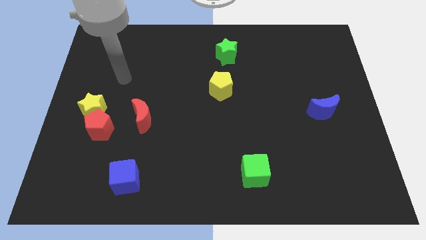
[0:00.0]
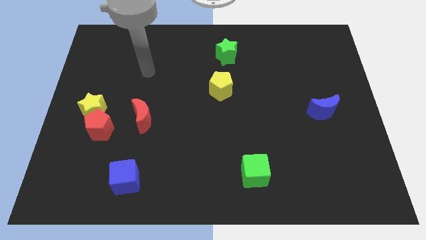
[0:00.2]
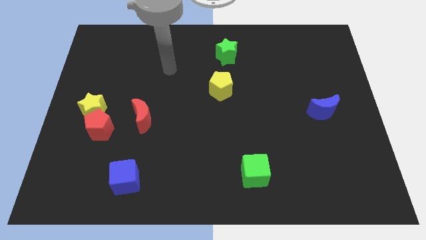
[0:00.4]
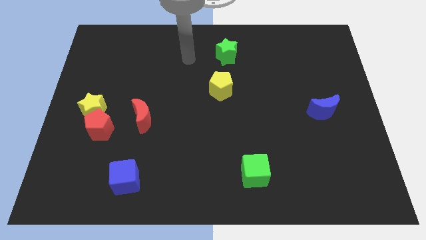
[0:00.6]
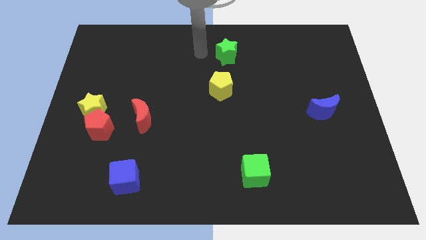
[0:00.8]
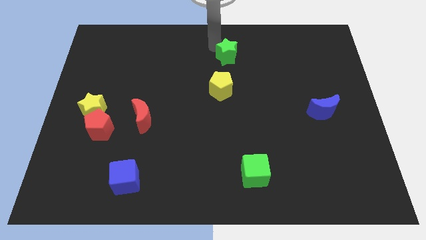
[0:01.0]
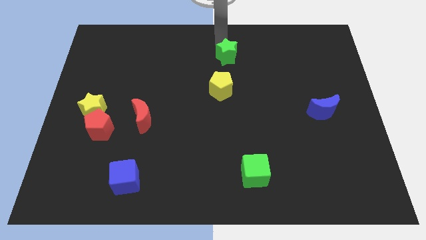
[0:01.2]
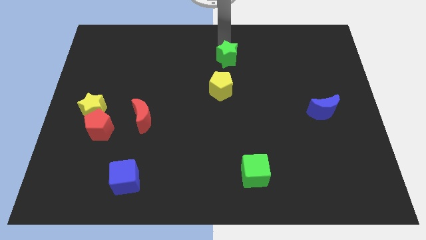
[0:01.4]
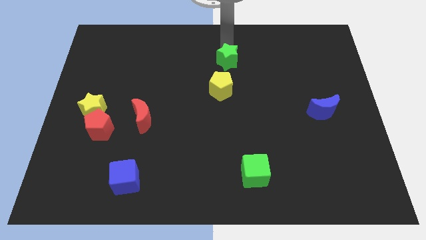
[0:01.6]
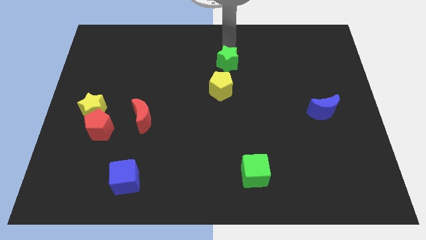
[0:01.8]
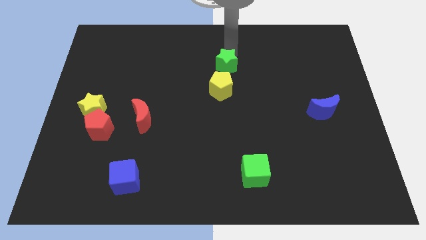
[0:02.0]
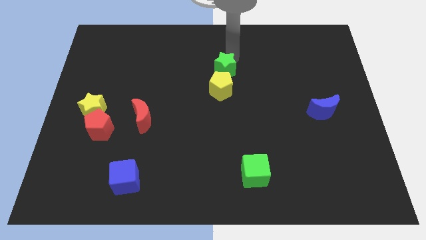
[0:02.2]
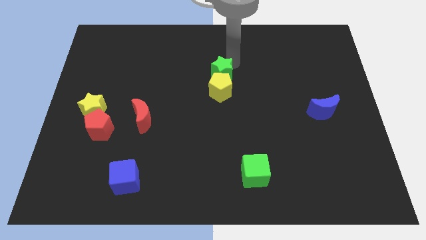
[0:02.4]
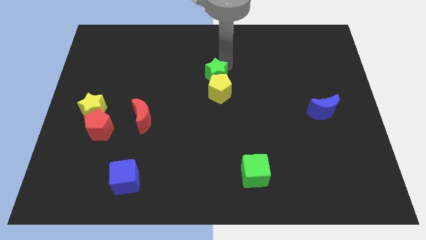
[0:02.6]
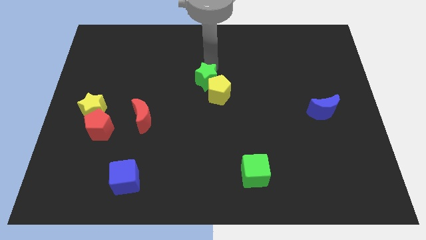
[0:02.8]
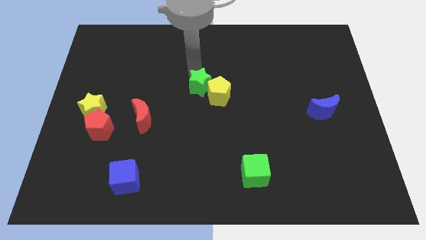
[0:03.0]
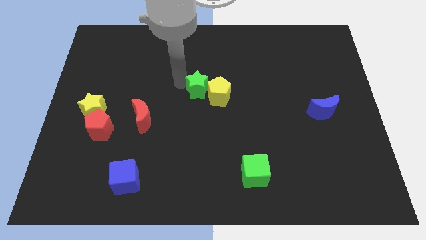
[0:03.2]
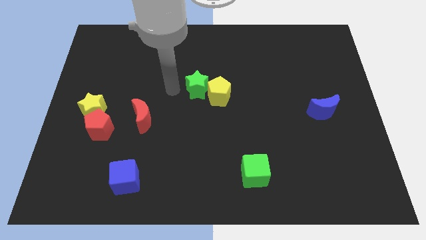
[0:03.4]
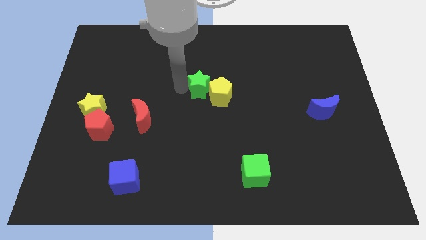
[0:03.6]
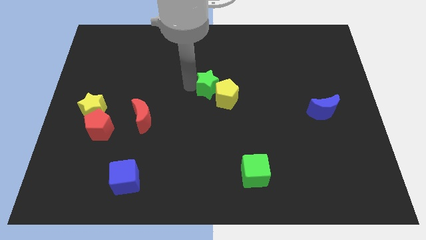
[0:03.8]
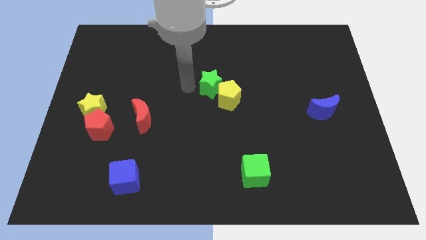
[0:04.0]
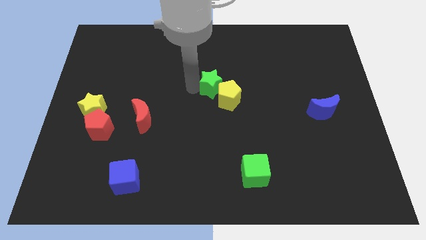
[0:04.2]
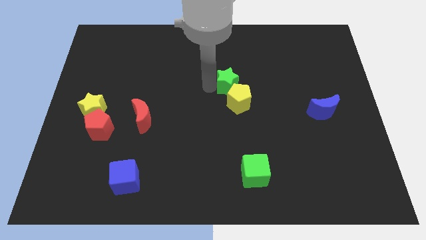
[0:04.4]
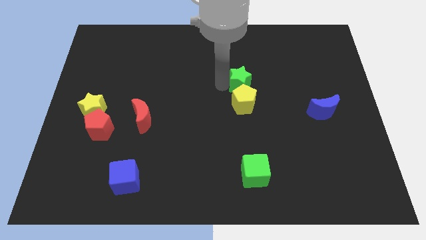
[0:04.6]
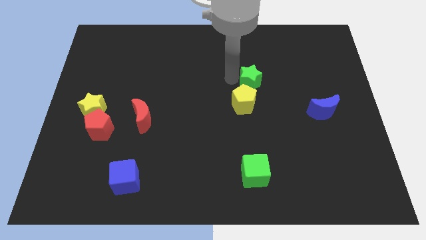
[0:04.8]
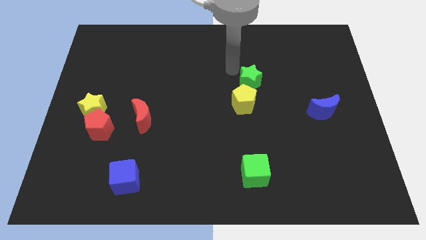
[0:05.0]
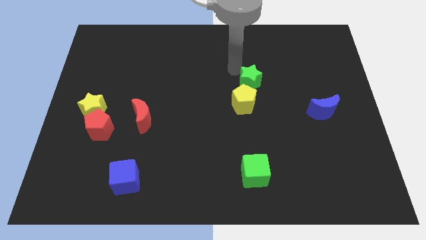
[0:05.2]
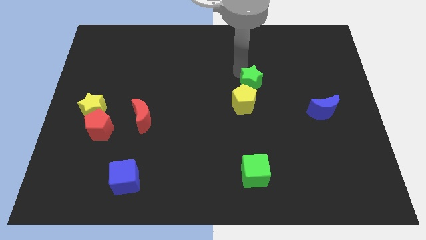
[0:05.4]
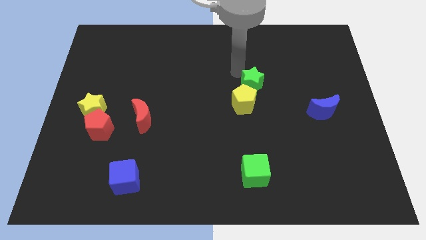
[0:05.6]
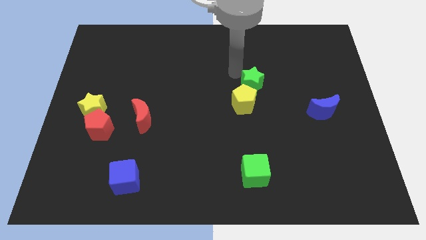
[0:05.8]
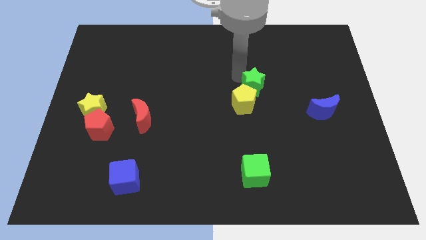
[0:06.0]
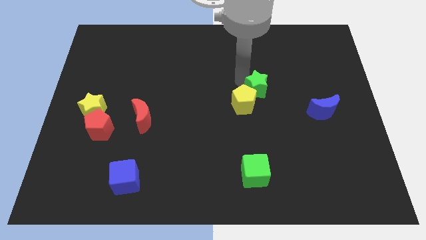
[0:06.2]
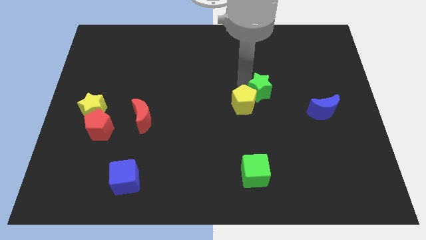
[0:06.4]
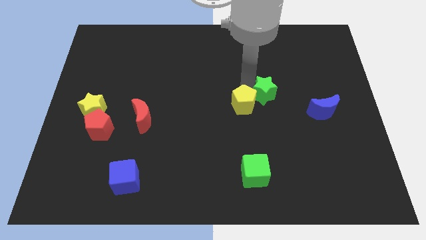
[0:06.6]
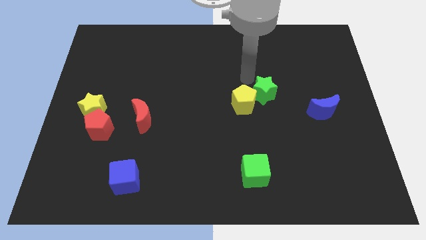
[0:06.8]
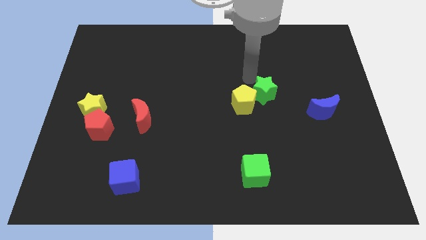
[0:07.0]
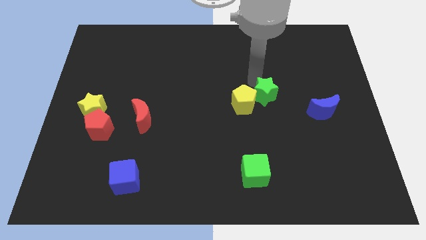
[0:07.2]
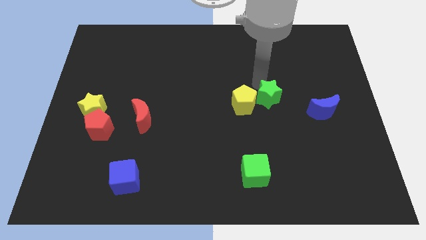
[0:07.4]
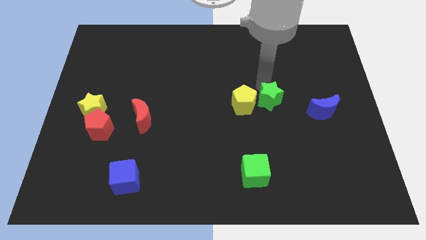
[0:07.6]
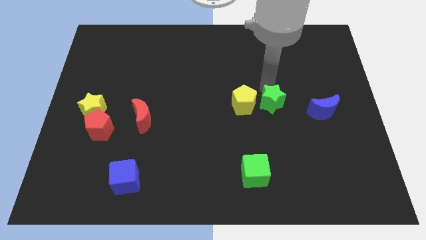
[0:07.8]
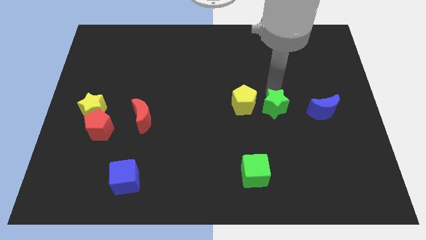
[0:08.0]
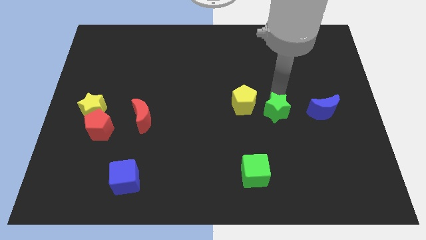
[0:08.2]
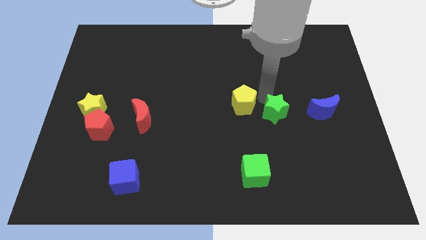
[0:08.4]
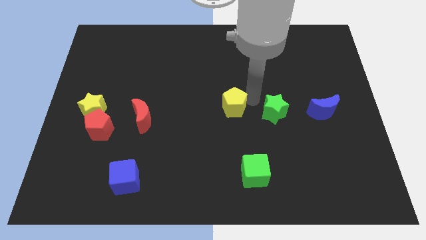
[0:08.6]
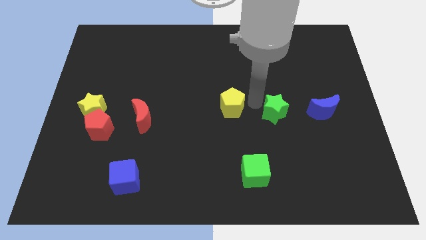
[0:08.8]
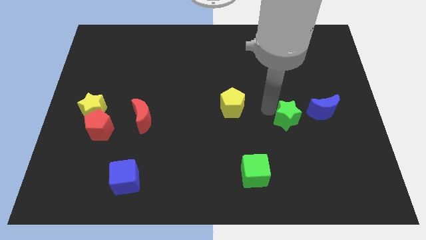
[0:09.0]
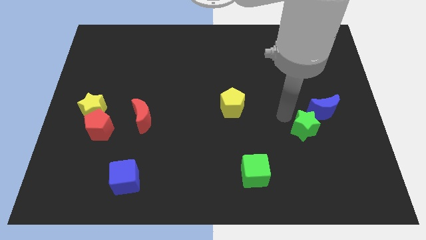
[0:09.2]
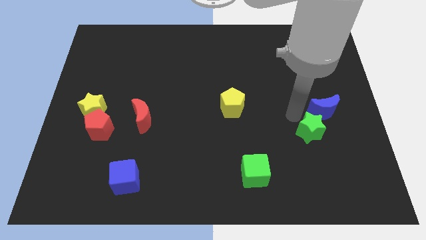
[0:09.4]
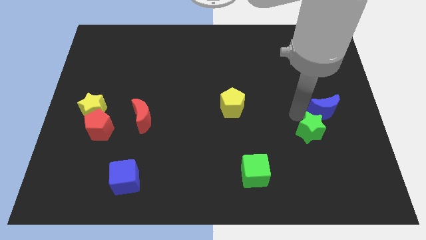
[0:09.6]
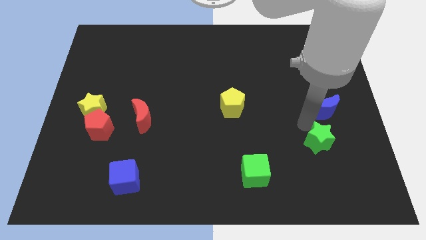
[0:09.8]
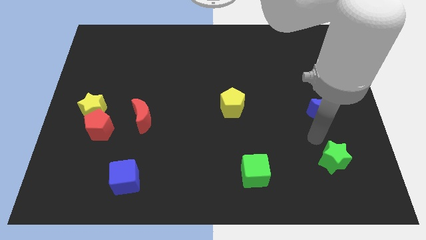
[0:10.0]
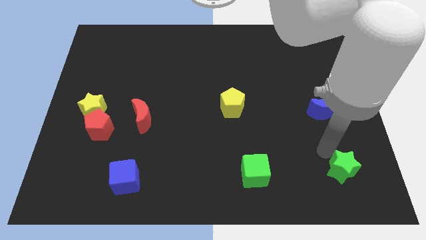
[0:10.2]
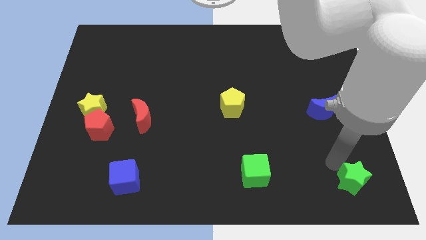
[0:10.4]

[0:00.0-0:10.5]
put the green star to the bottom right of the board

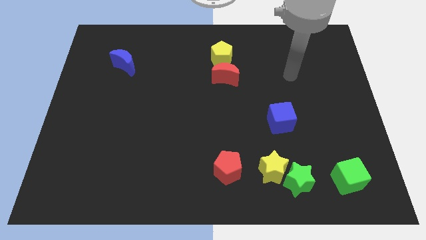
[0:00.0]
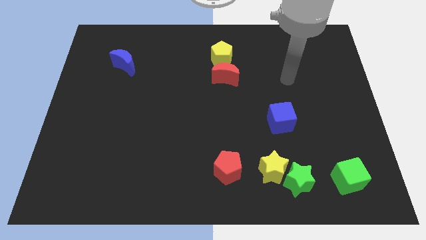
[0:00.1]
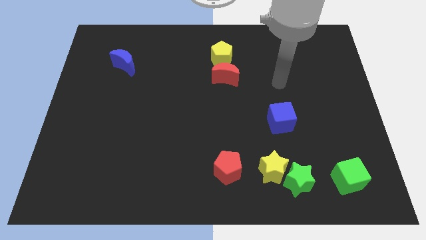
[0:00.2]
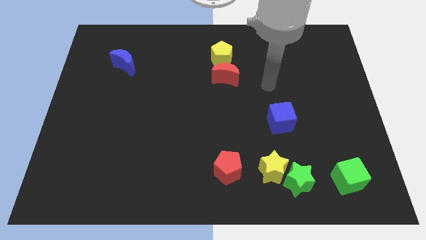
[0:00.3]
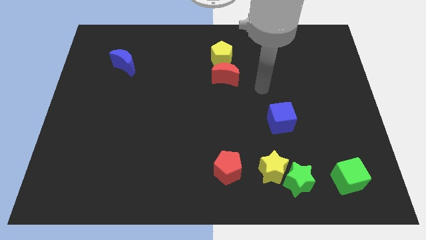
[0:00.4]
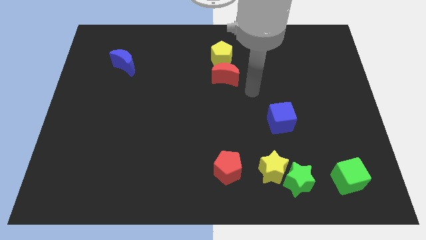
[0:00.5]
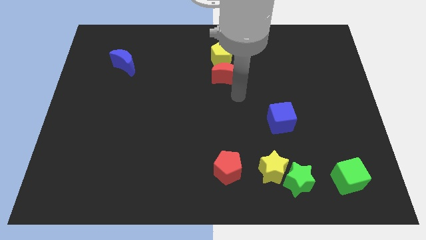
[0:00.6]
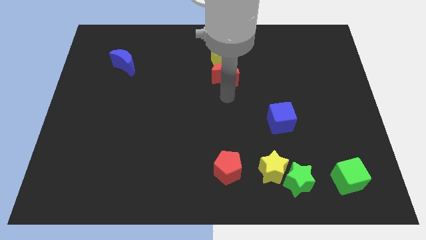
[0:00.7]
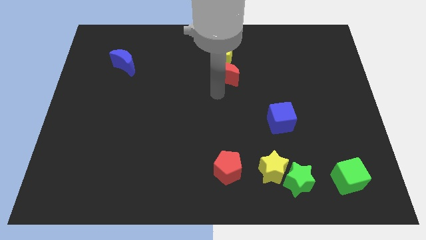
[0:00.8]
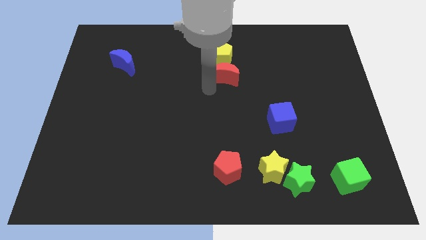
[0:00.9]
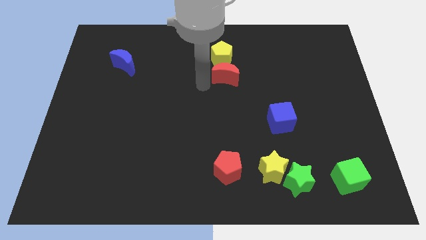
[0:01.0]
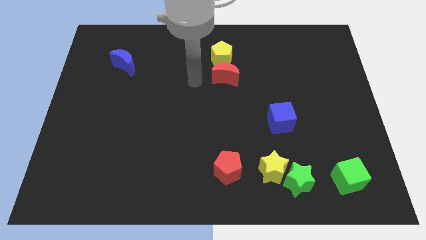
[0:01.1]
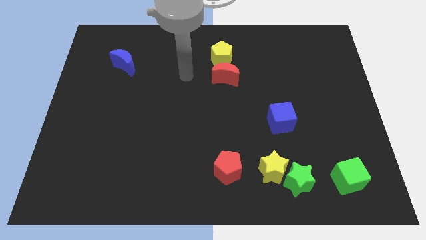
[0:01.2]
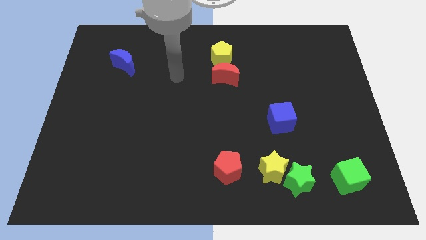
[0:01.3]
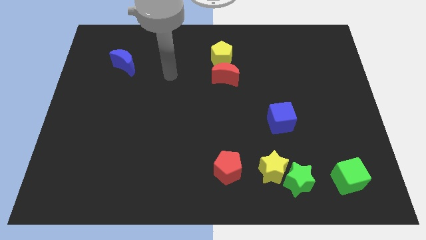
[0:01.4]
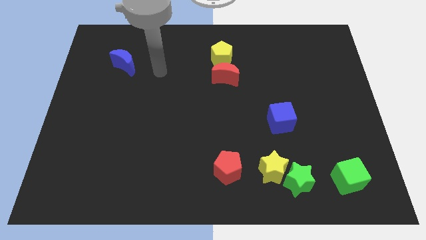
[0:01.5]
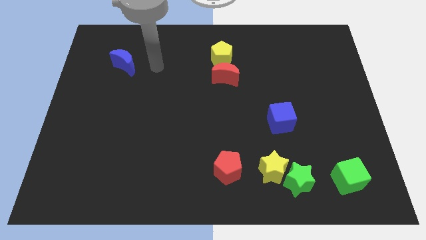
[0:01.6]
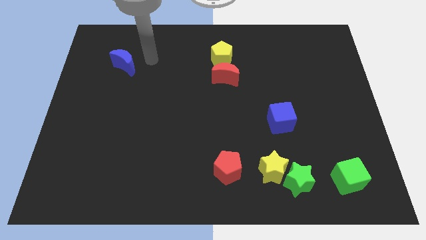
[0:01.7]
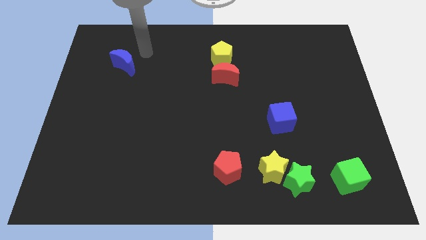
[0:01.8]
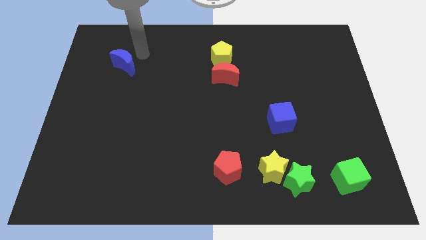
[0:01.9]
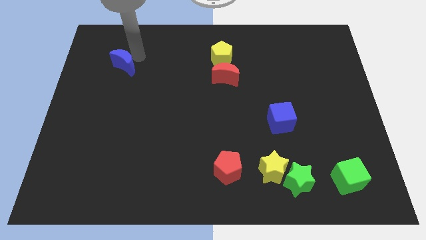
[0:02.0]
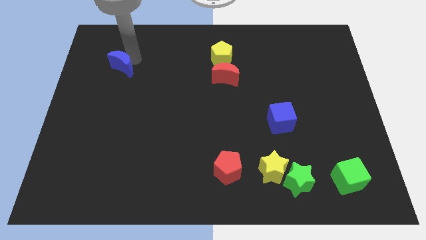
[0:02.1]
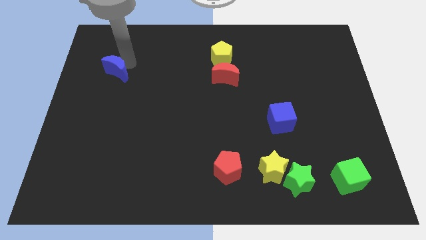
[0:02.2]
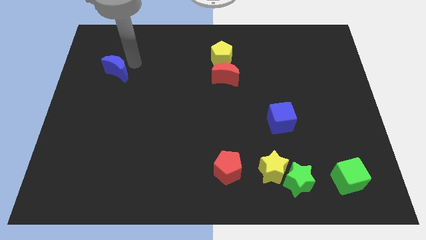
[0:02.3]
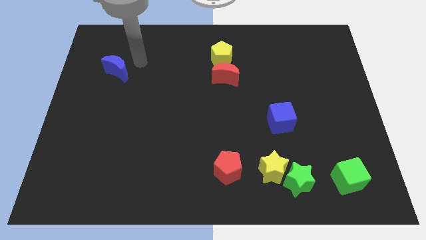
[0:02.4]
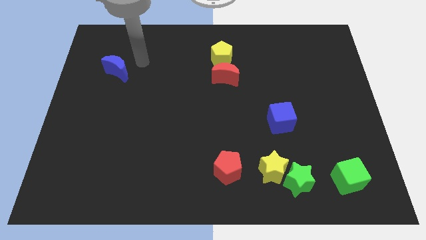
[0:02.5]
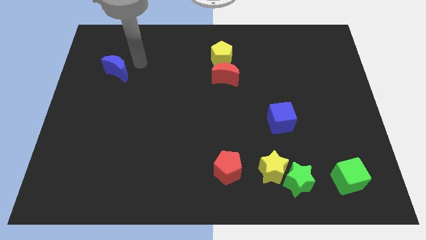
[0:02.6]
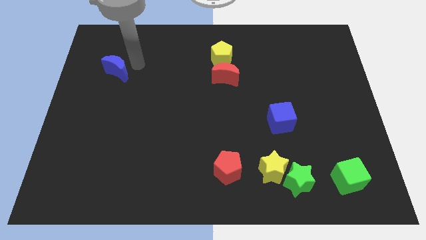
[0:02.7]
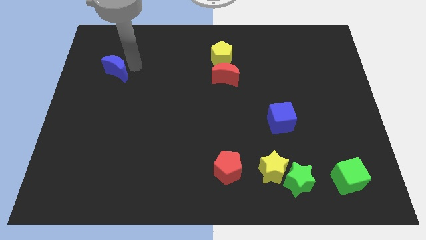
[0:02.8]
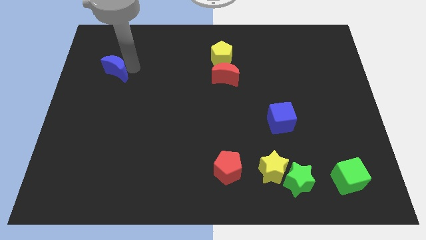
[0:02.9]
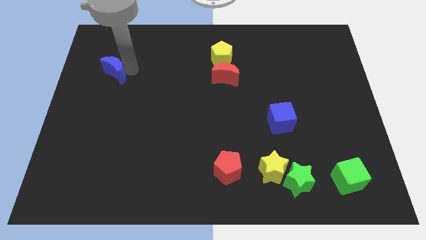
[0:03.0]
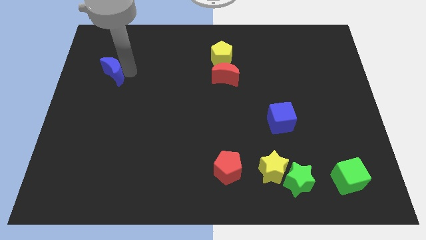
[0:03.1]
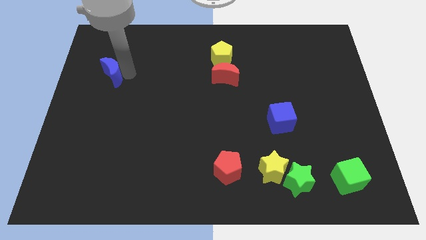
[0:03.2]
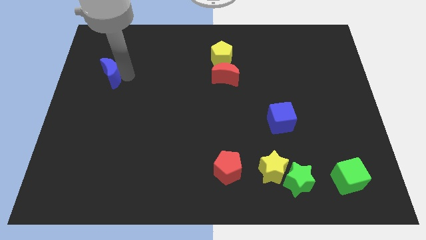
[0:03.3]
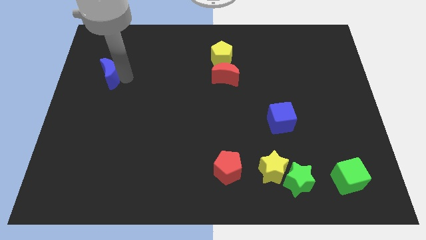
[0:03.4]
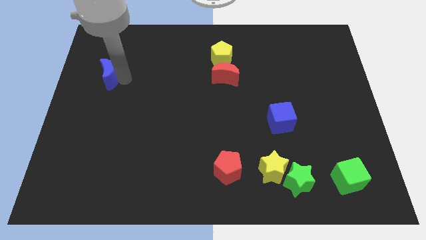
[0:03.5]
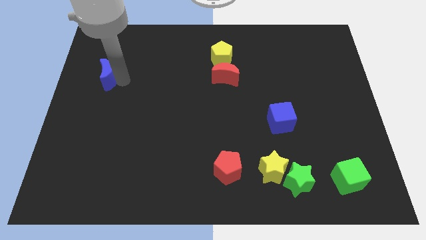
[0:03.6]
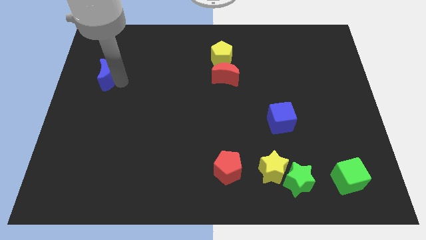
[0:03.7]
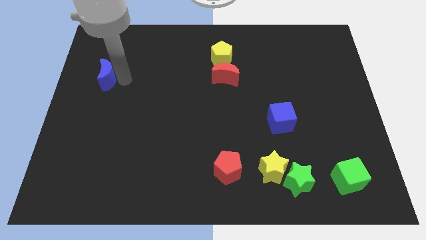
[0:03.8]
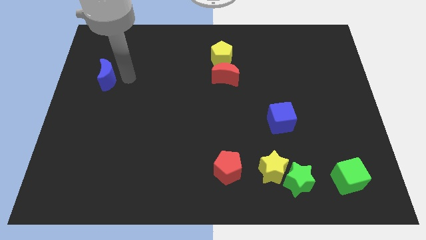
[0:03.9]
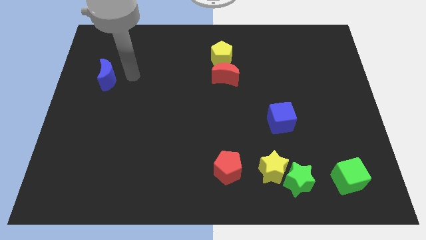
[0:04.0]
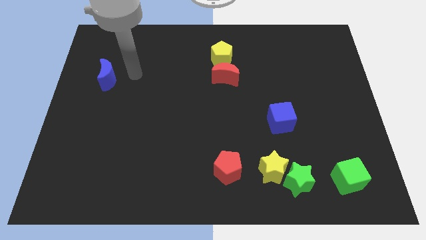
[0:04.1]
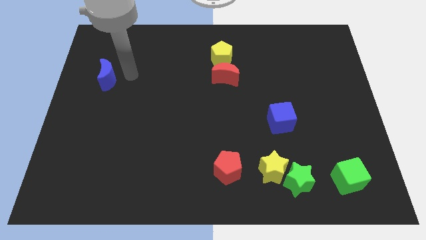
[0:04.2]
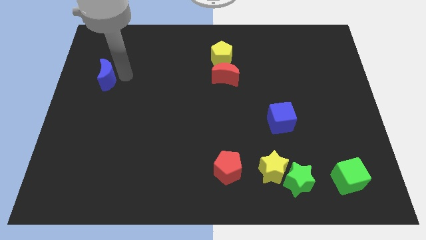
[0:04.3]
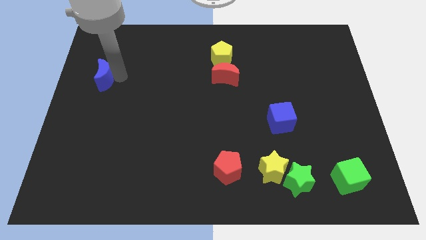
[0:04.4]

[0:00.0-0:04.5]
put the blue moon to the center left
